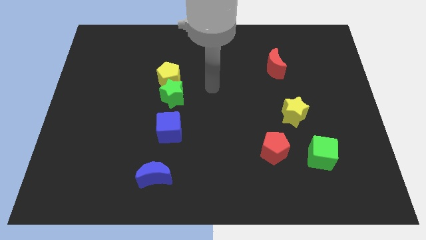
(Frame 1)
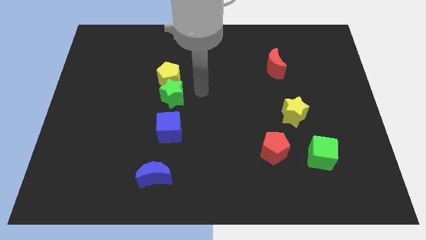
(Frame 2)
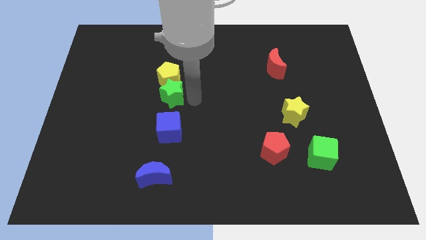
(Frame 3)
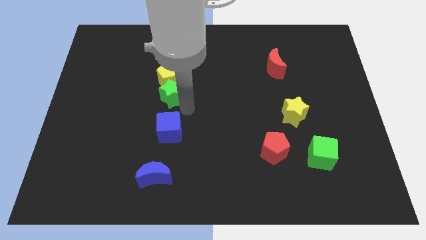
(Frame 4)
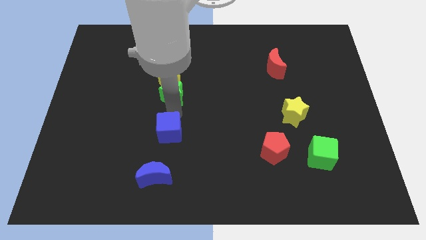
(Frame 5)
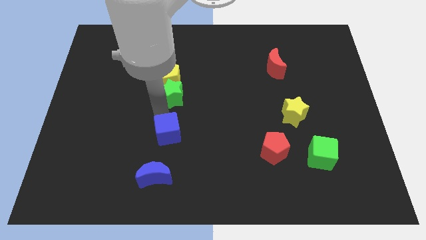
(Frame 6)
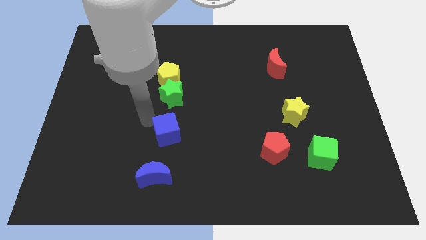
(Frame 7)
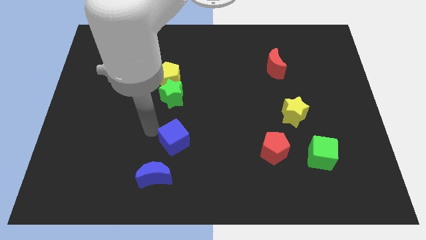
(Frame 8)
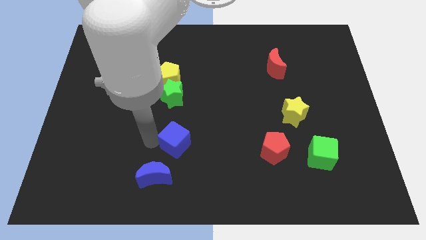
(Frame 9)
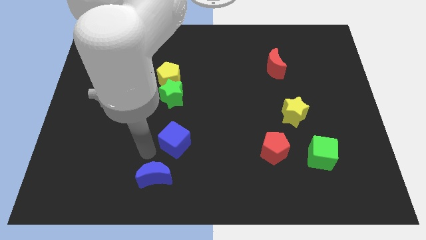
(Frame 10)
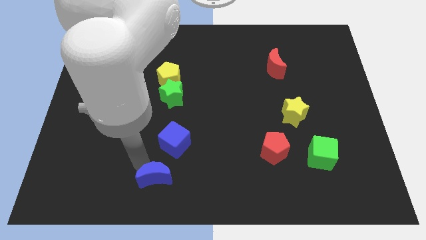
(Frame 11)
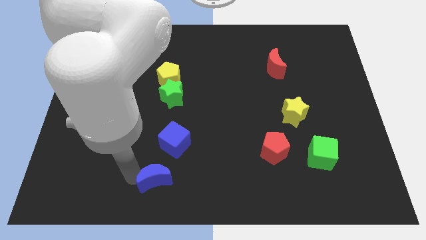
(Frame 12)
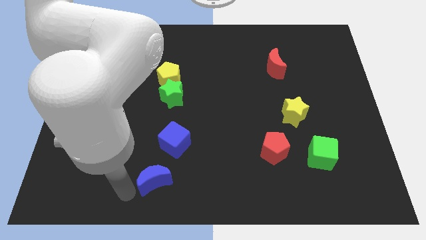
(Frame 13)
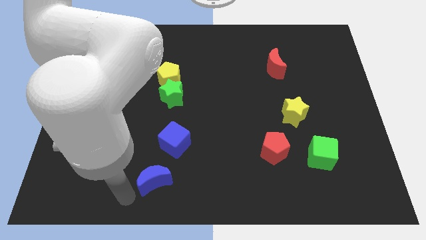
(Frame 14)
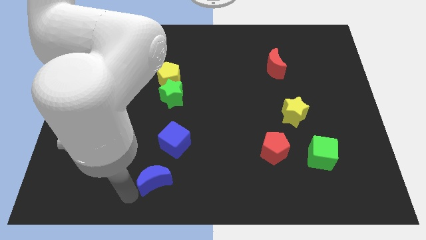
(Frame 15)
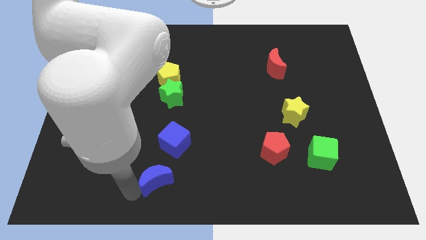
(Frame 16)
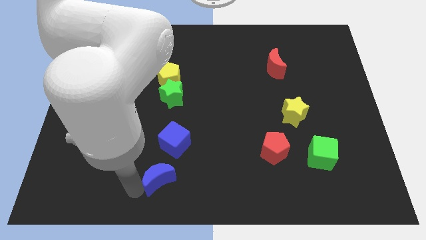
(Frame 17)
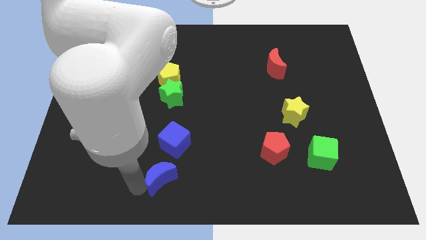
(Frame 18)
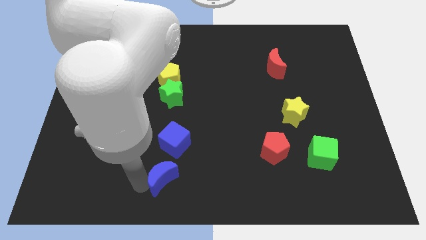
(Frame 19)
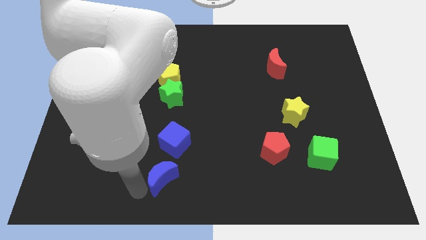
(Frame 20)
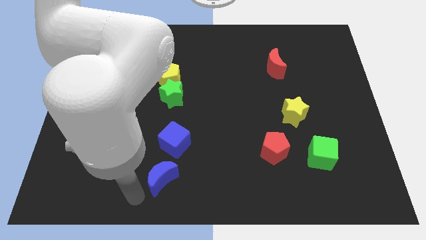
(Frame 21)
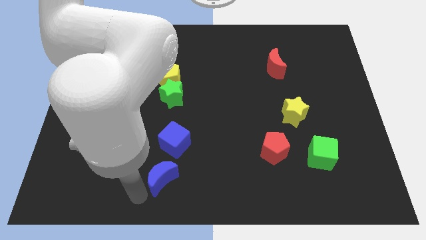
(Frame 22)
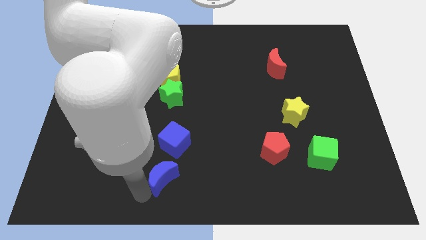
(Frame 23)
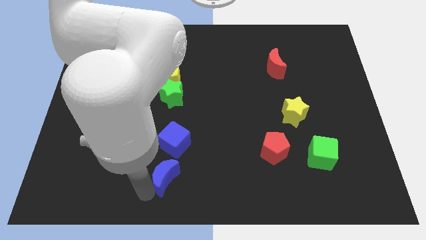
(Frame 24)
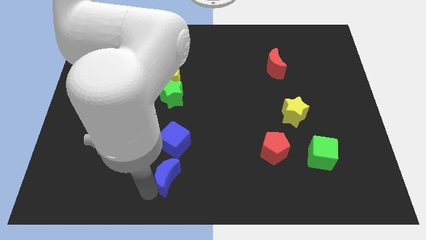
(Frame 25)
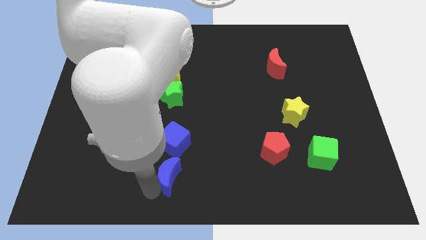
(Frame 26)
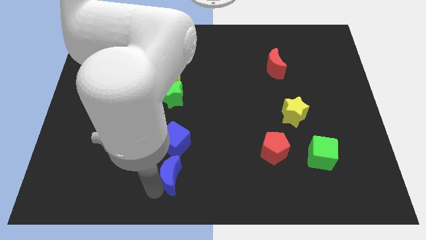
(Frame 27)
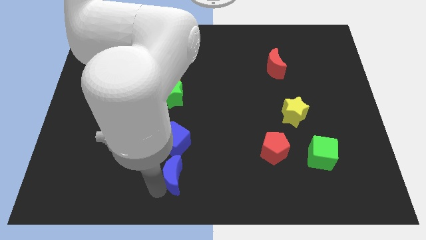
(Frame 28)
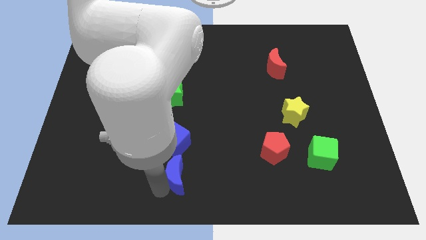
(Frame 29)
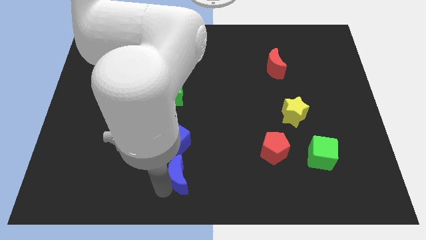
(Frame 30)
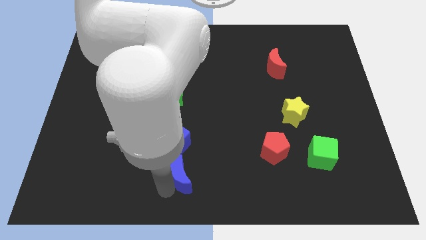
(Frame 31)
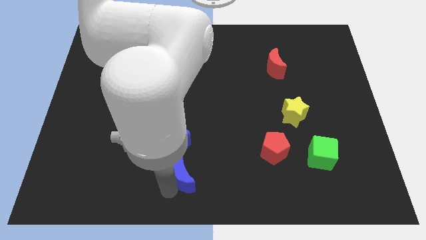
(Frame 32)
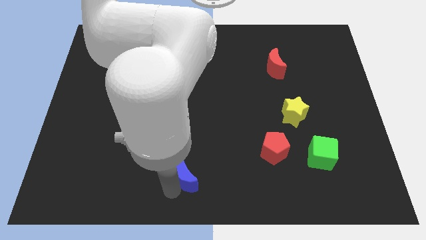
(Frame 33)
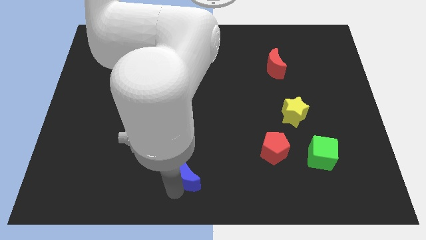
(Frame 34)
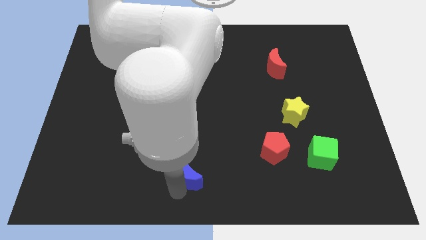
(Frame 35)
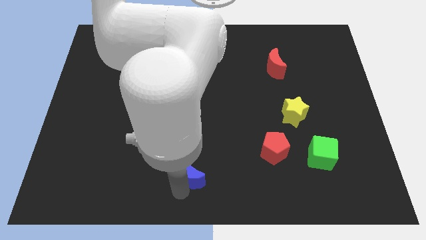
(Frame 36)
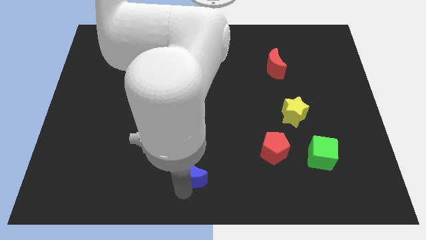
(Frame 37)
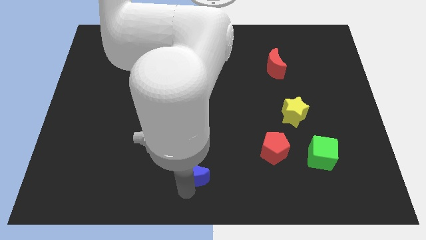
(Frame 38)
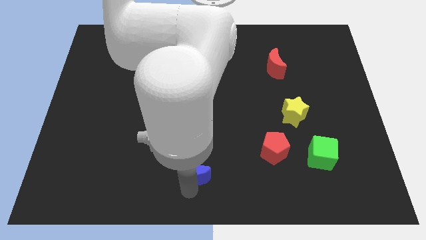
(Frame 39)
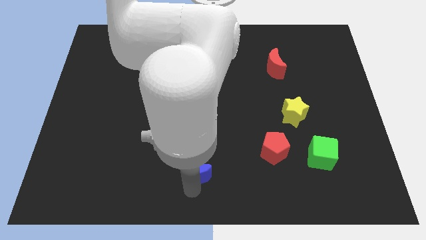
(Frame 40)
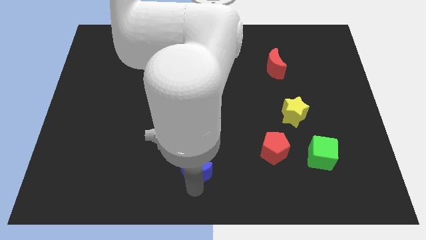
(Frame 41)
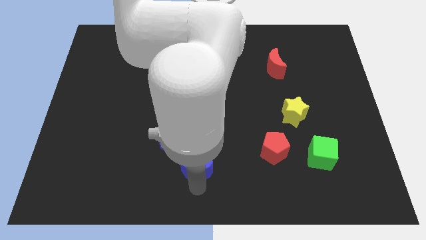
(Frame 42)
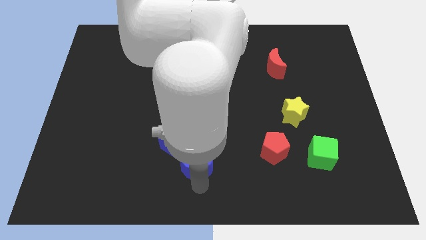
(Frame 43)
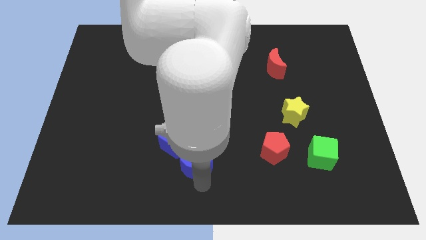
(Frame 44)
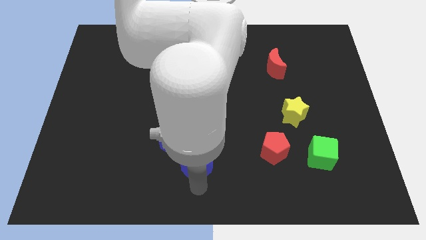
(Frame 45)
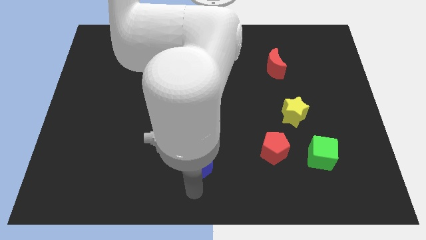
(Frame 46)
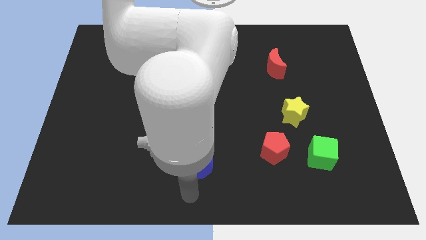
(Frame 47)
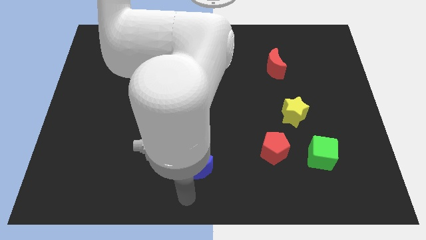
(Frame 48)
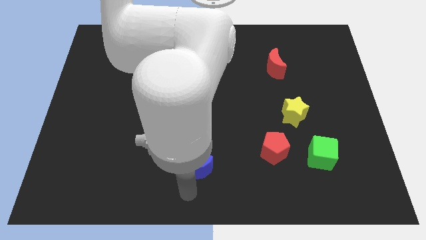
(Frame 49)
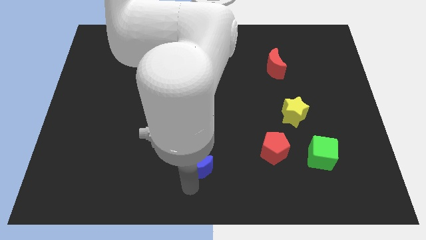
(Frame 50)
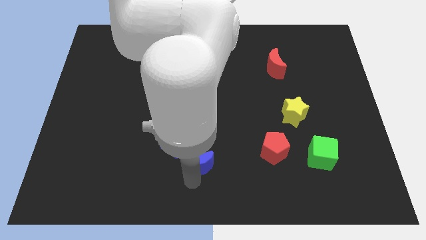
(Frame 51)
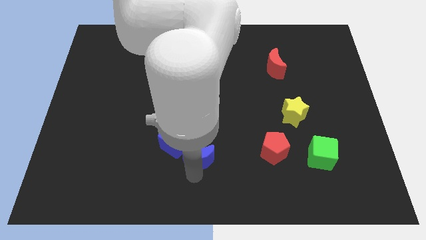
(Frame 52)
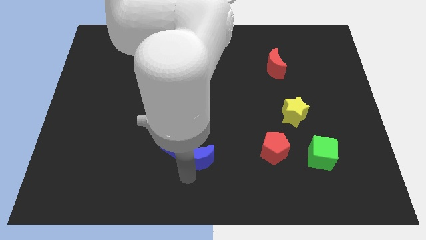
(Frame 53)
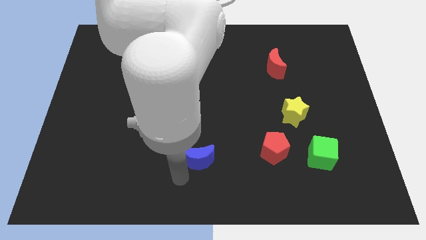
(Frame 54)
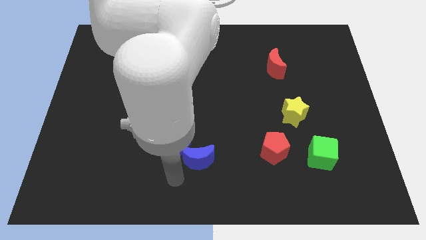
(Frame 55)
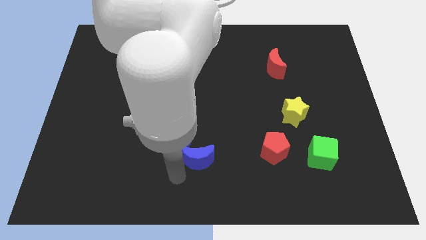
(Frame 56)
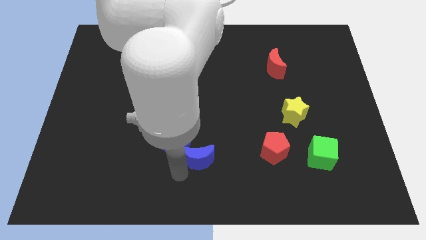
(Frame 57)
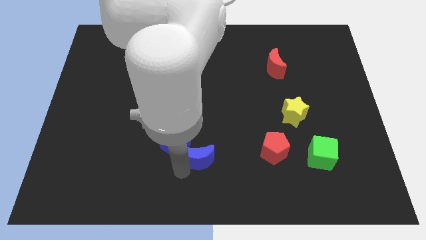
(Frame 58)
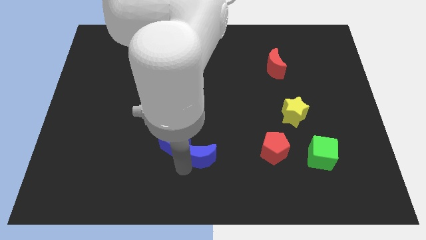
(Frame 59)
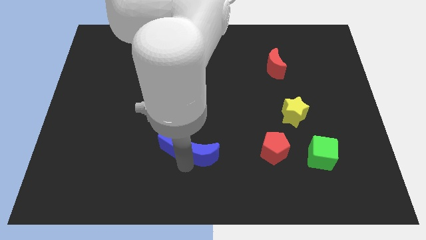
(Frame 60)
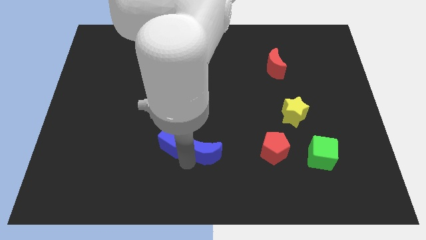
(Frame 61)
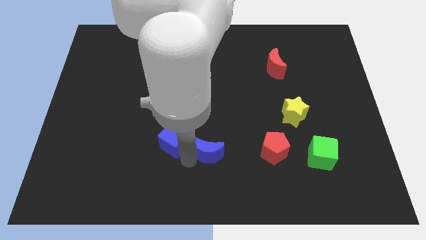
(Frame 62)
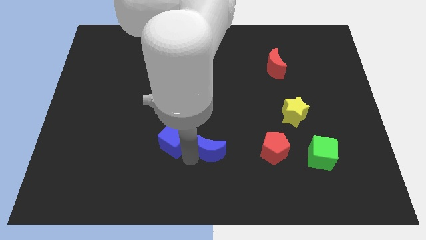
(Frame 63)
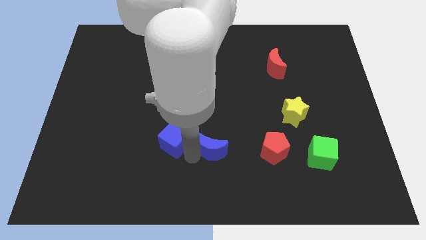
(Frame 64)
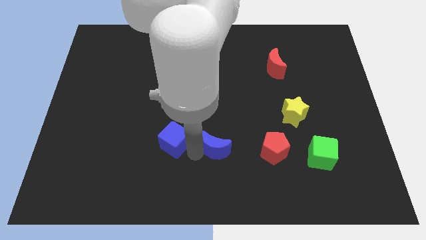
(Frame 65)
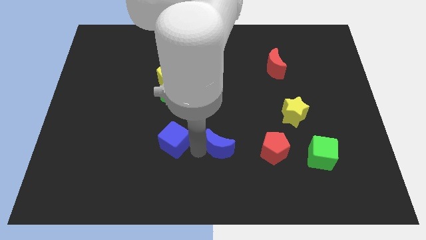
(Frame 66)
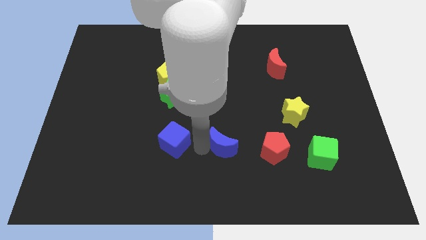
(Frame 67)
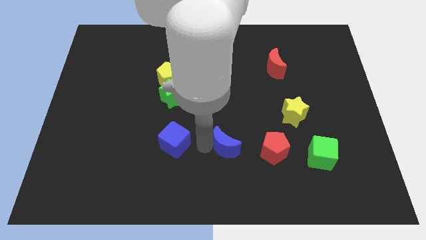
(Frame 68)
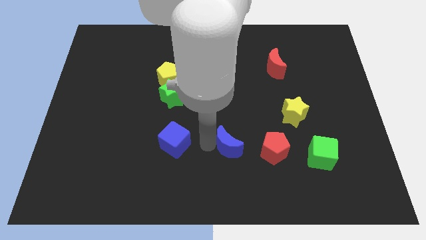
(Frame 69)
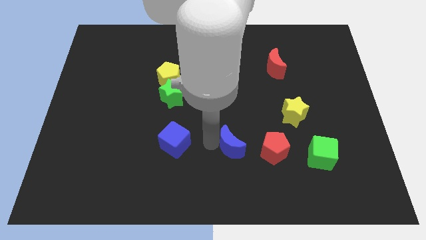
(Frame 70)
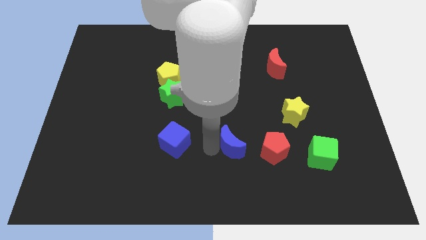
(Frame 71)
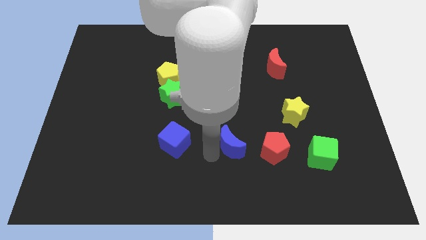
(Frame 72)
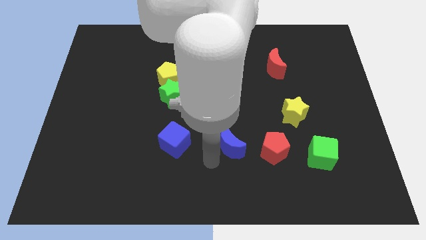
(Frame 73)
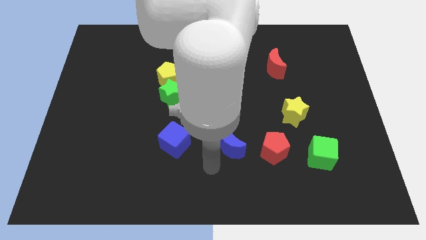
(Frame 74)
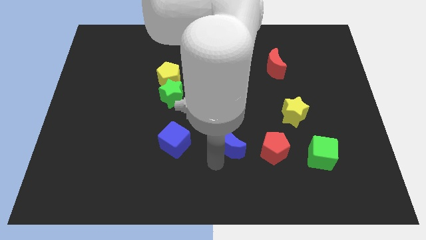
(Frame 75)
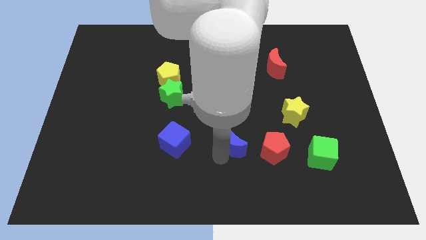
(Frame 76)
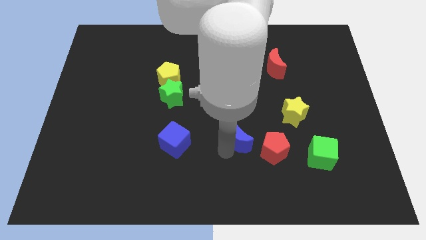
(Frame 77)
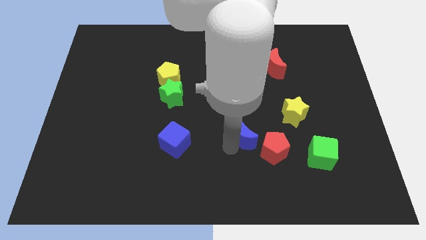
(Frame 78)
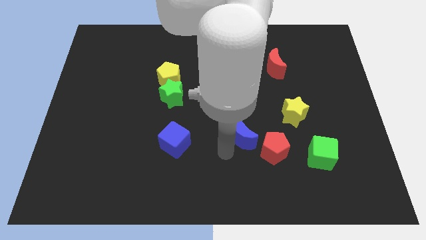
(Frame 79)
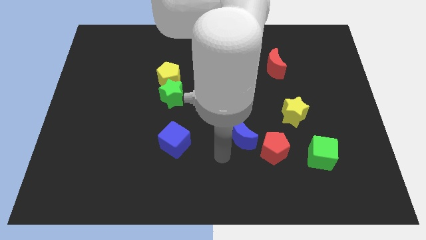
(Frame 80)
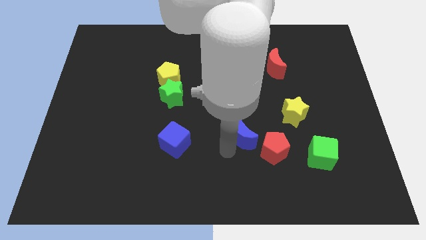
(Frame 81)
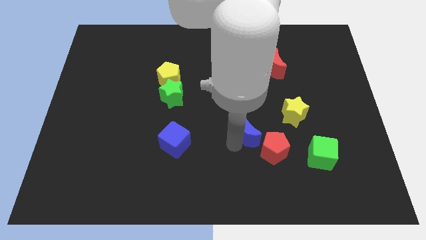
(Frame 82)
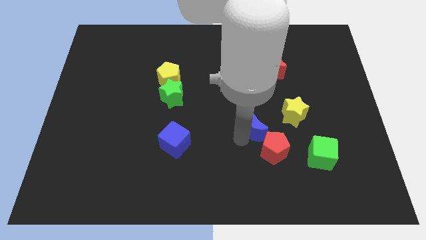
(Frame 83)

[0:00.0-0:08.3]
move the blue moon to the top of the red pentagon
